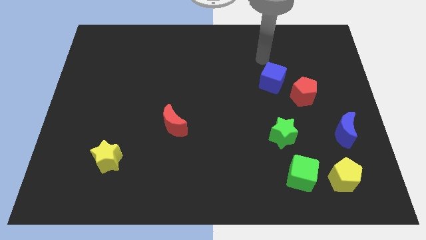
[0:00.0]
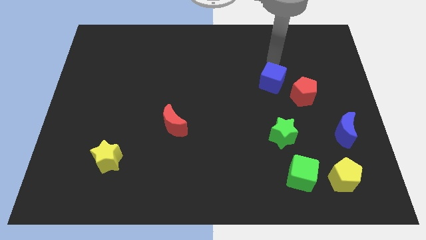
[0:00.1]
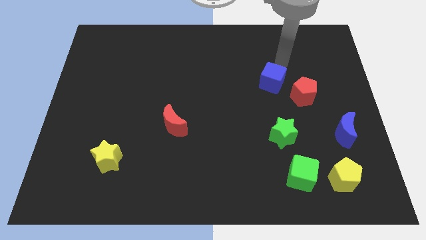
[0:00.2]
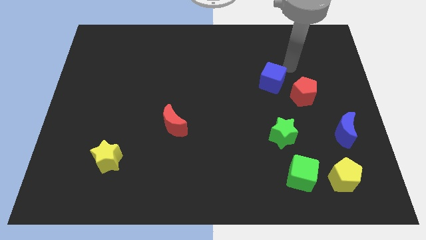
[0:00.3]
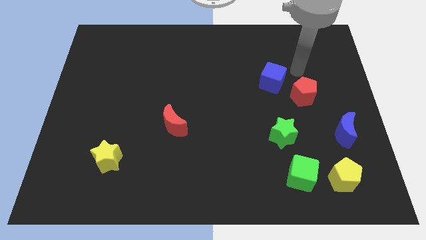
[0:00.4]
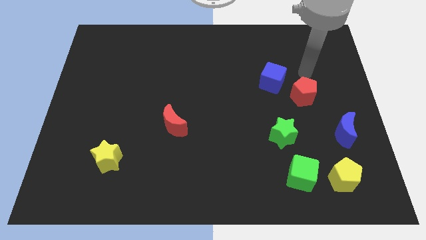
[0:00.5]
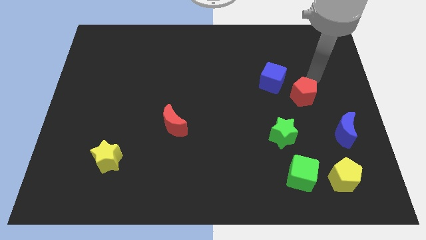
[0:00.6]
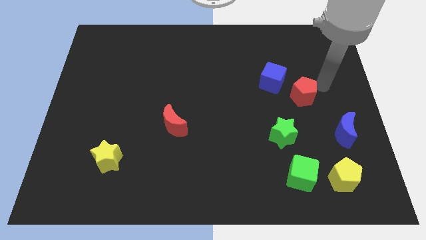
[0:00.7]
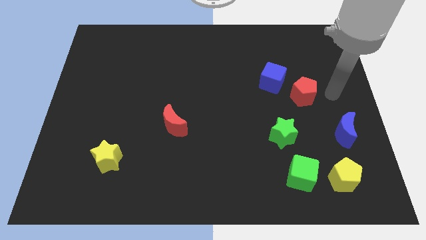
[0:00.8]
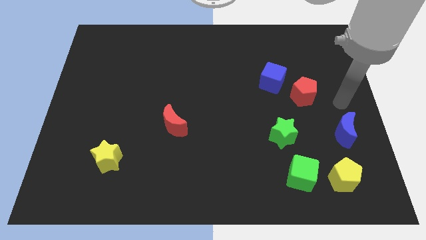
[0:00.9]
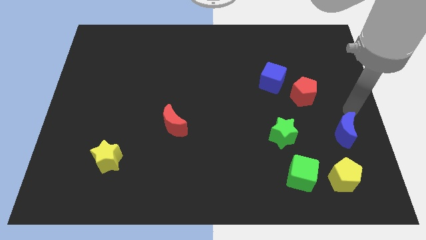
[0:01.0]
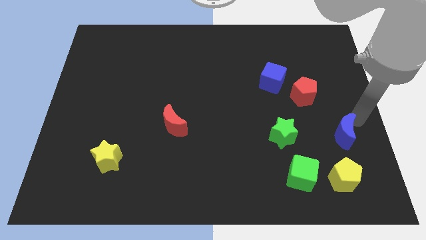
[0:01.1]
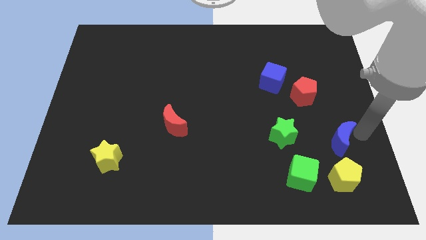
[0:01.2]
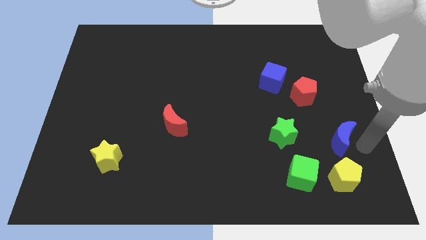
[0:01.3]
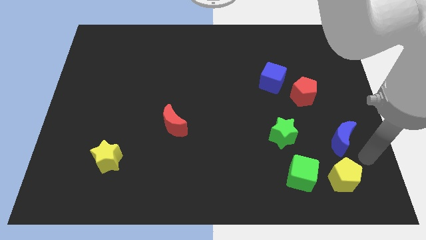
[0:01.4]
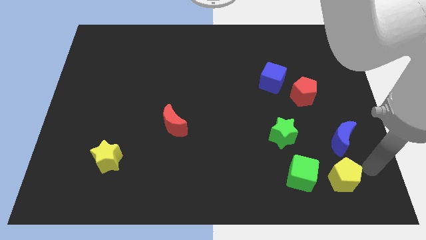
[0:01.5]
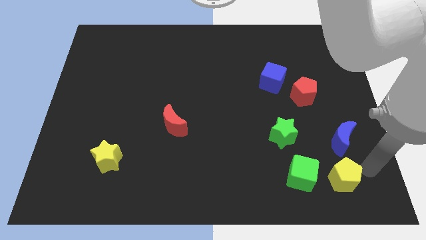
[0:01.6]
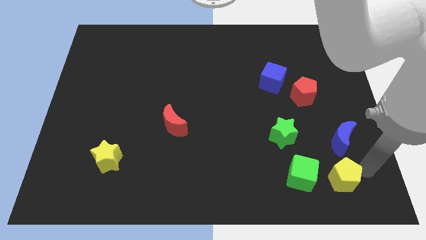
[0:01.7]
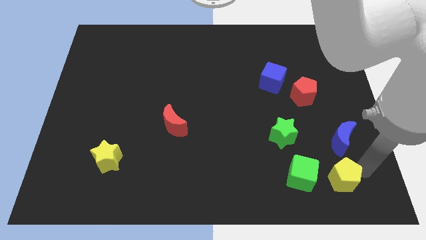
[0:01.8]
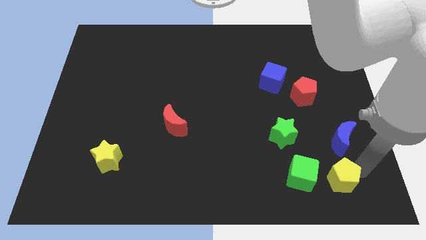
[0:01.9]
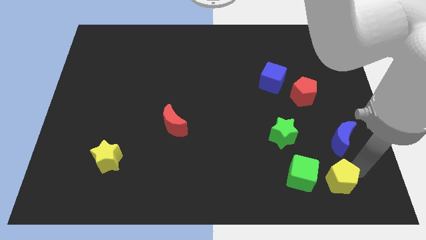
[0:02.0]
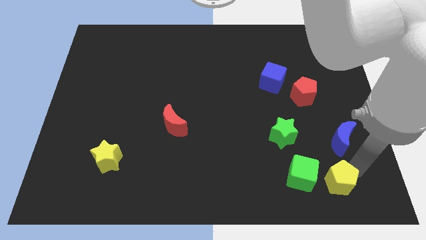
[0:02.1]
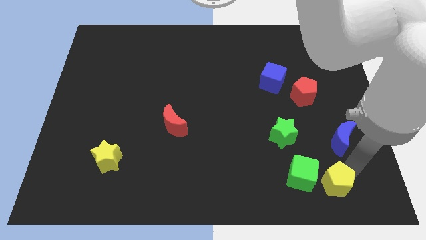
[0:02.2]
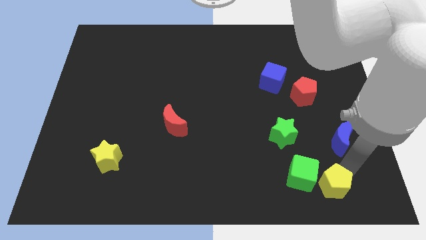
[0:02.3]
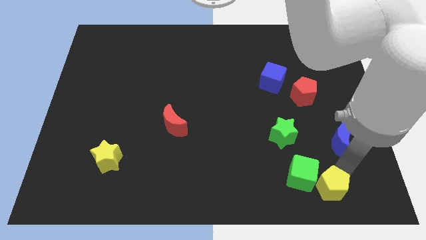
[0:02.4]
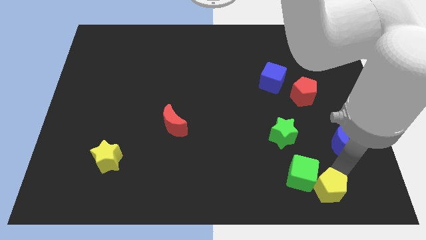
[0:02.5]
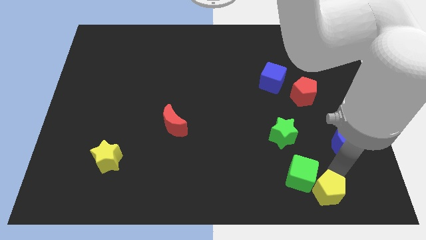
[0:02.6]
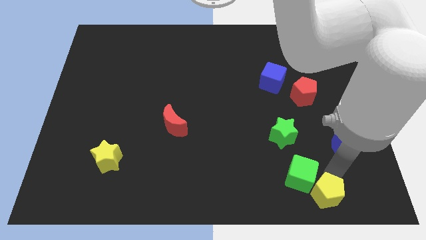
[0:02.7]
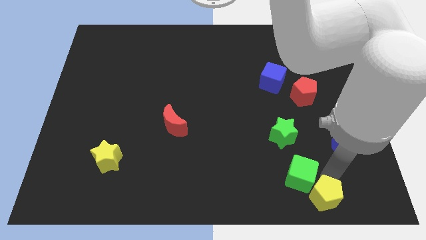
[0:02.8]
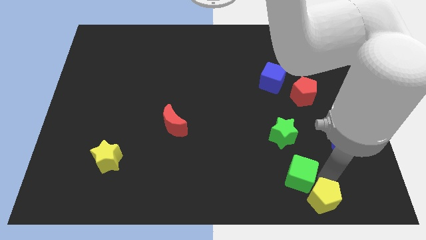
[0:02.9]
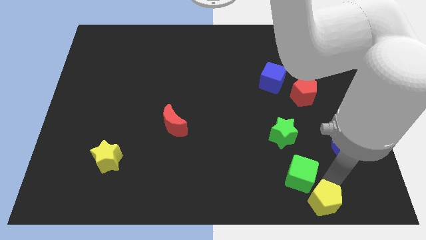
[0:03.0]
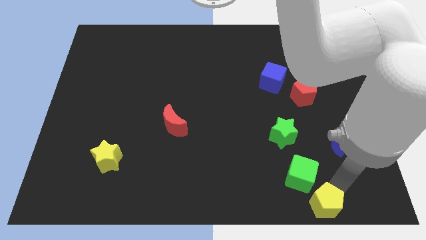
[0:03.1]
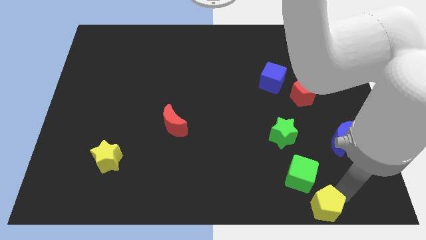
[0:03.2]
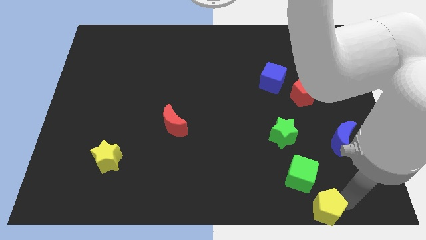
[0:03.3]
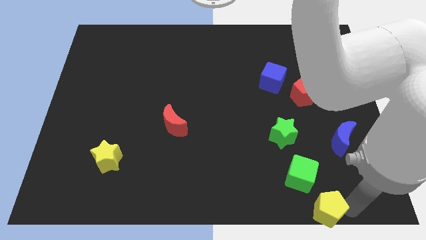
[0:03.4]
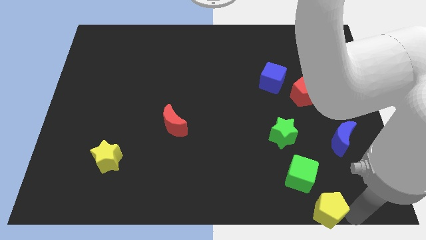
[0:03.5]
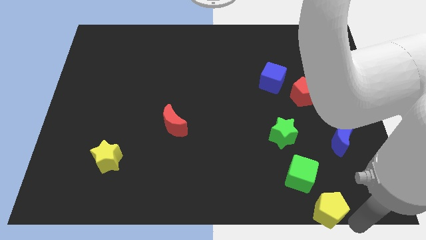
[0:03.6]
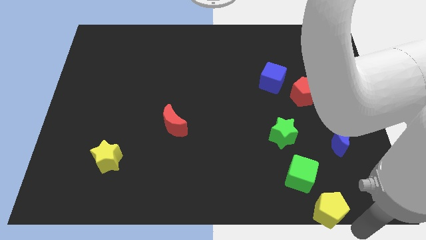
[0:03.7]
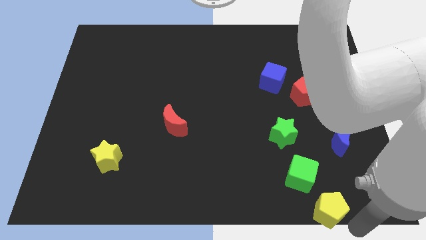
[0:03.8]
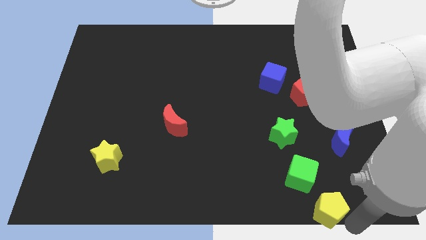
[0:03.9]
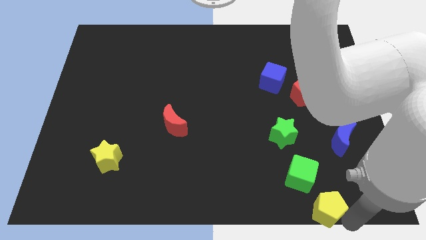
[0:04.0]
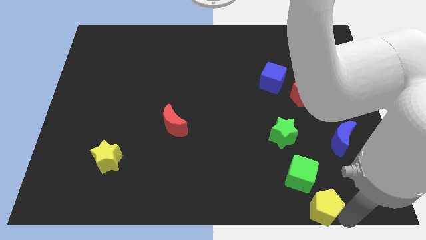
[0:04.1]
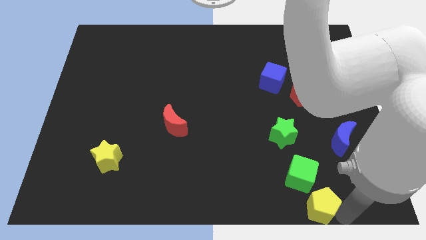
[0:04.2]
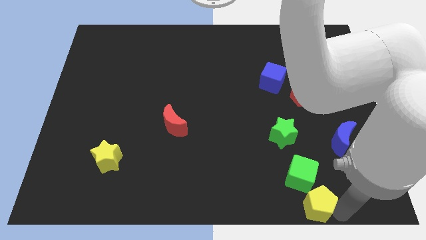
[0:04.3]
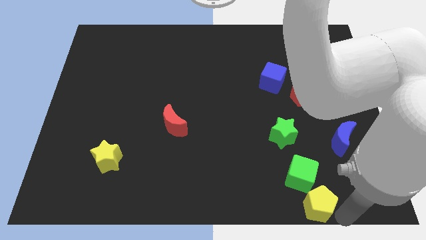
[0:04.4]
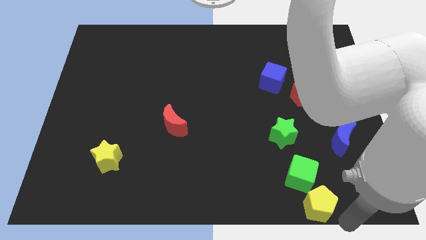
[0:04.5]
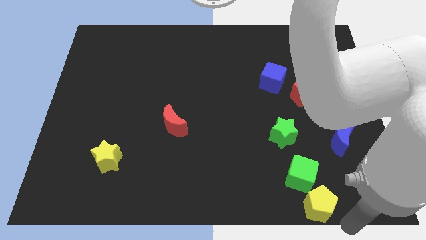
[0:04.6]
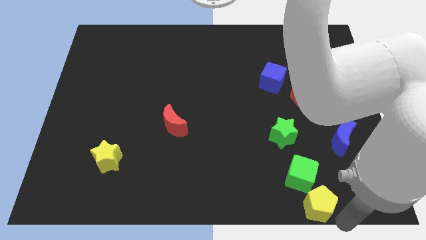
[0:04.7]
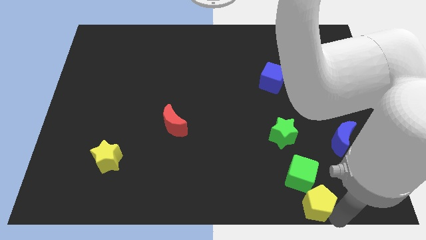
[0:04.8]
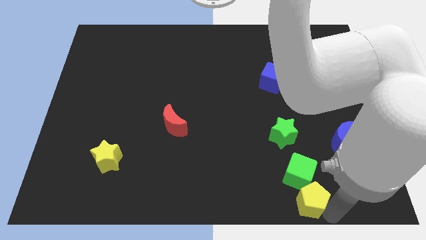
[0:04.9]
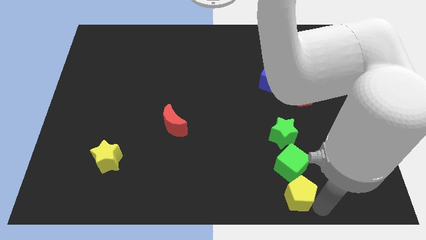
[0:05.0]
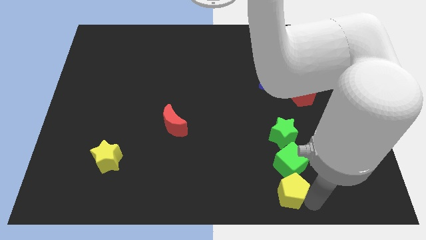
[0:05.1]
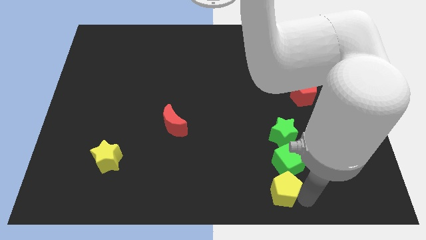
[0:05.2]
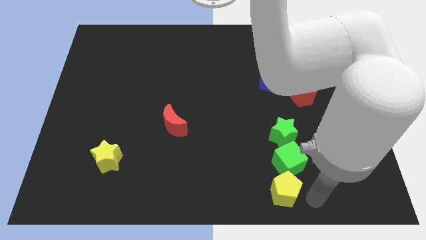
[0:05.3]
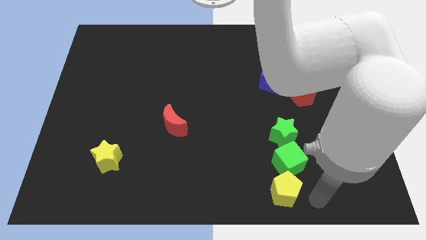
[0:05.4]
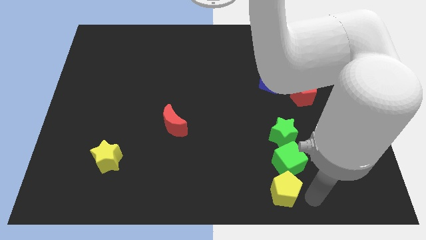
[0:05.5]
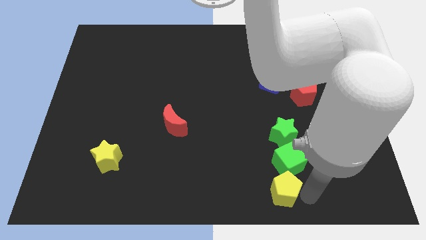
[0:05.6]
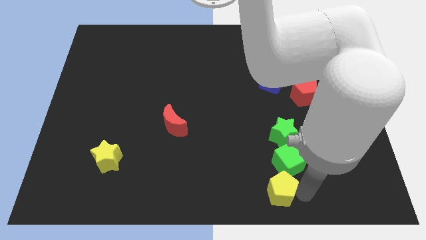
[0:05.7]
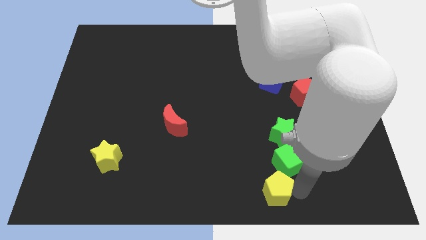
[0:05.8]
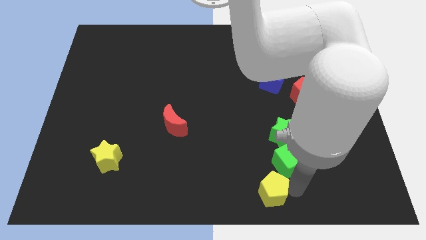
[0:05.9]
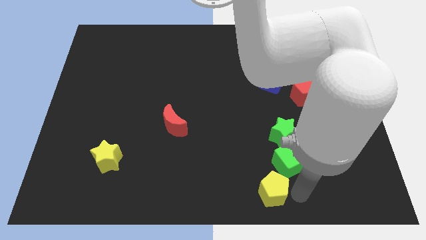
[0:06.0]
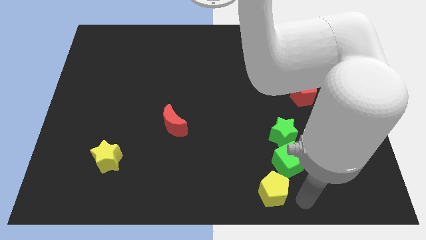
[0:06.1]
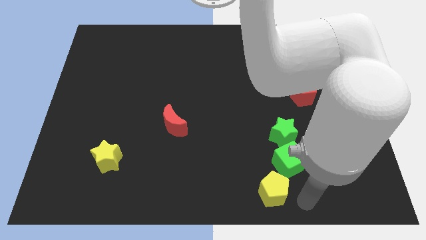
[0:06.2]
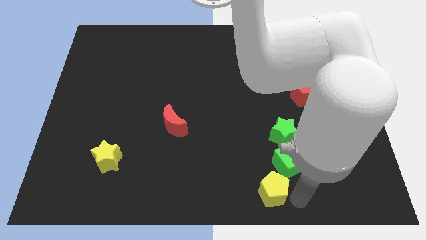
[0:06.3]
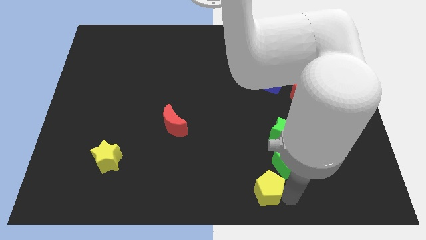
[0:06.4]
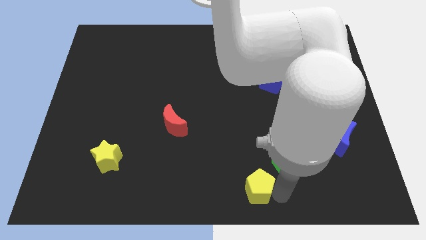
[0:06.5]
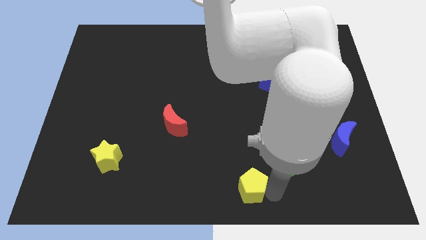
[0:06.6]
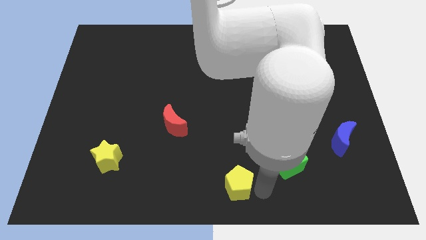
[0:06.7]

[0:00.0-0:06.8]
move the yellow pentagon to the left

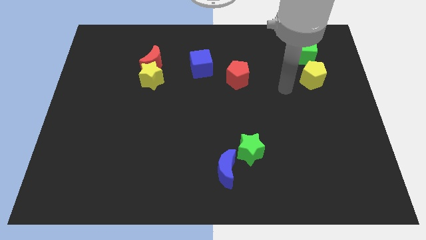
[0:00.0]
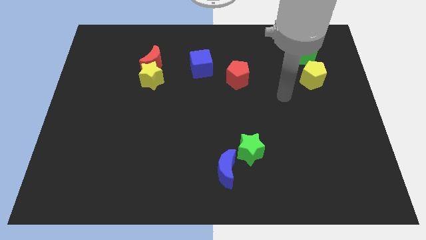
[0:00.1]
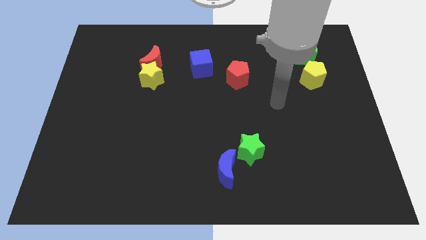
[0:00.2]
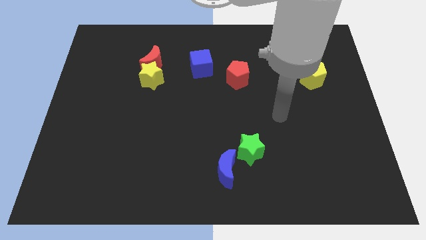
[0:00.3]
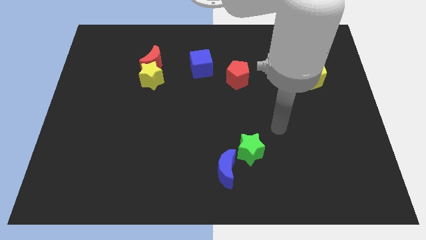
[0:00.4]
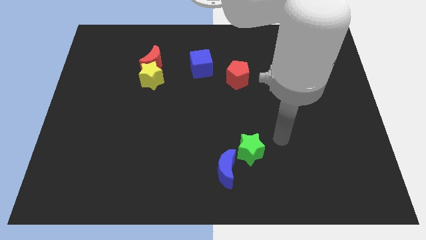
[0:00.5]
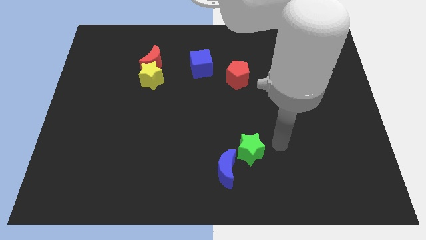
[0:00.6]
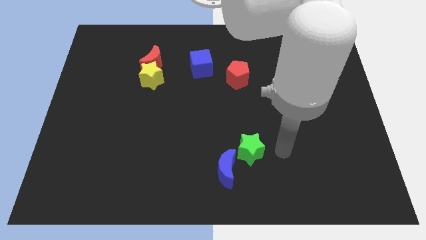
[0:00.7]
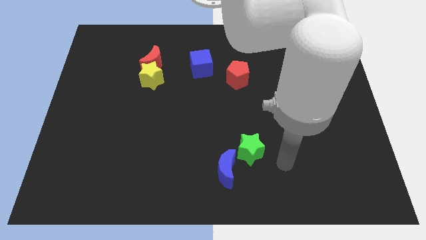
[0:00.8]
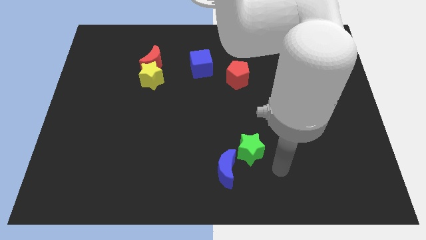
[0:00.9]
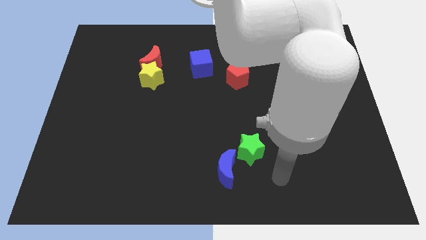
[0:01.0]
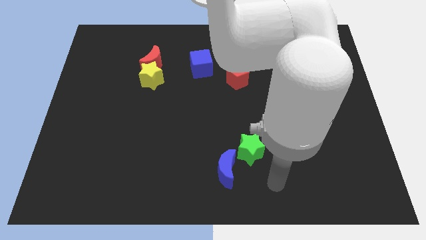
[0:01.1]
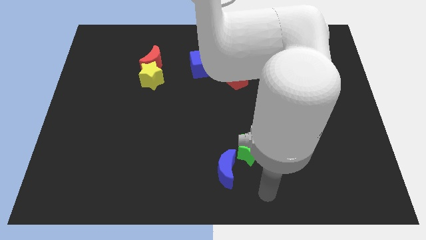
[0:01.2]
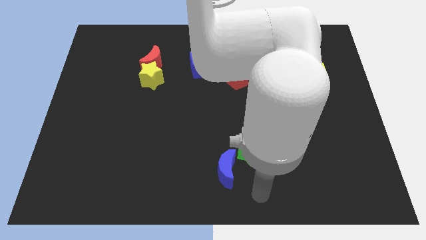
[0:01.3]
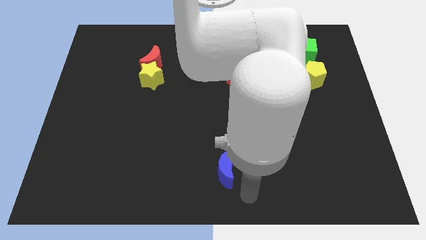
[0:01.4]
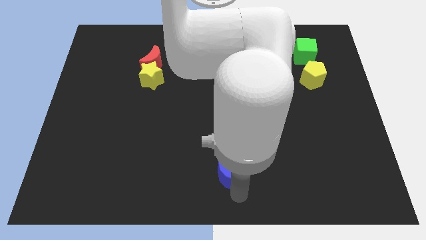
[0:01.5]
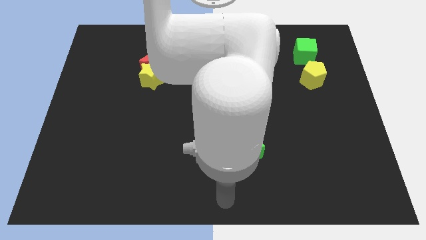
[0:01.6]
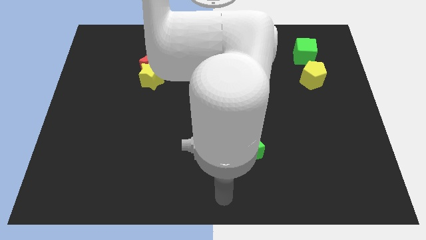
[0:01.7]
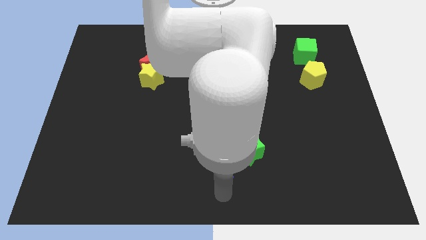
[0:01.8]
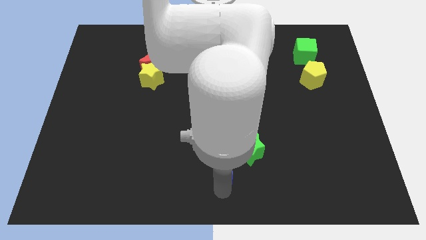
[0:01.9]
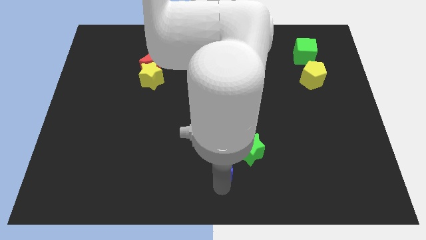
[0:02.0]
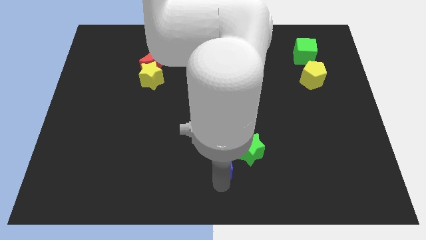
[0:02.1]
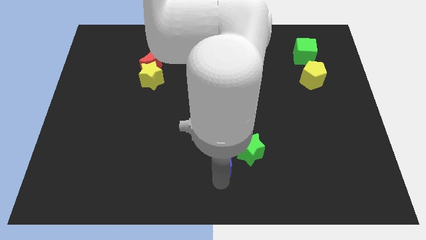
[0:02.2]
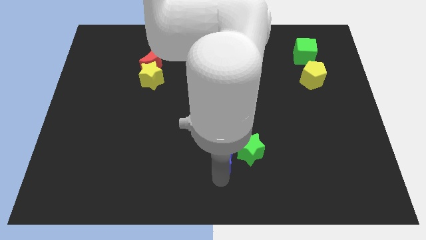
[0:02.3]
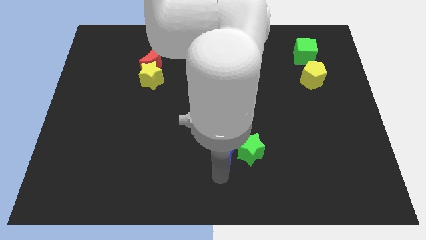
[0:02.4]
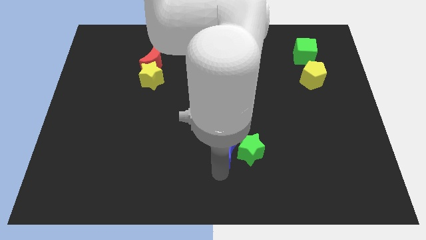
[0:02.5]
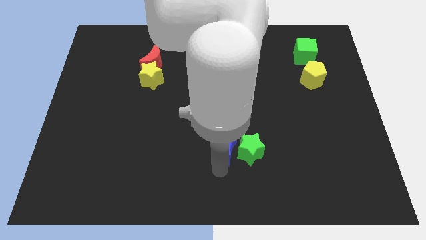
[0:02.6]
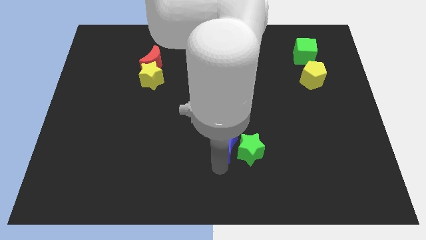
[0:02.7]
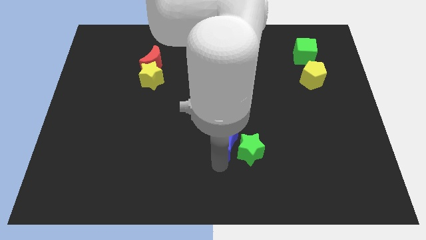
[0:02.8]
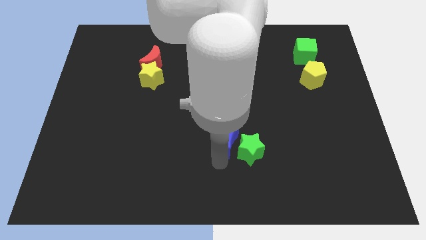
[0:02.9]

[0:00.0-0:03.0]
slightly push the blue moon up
